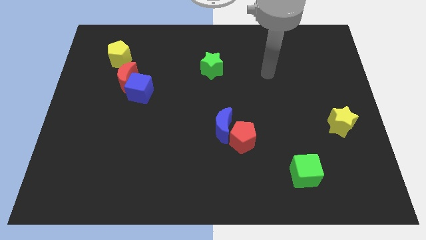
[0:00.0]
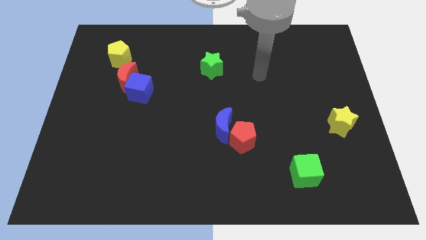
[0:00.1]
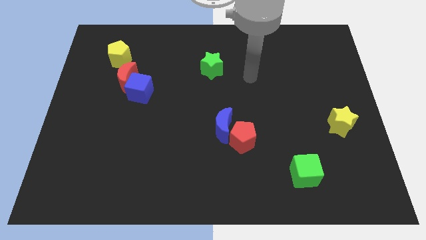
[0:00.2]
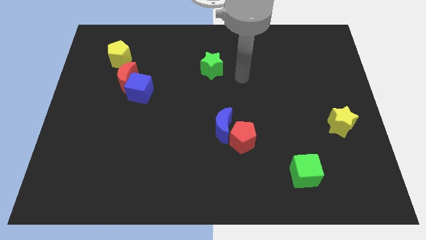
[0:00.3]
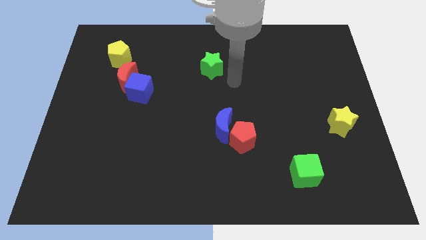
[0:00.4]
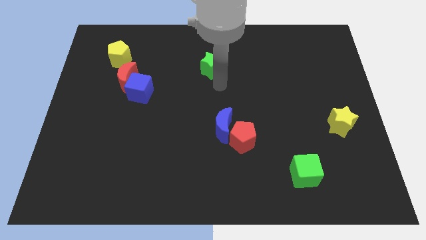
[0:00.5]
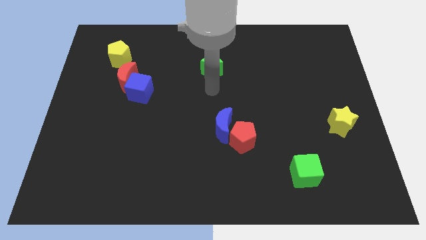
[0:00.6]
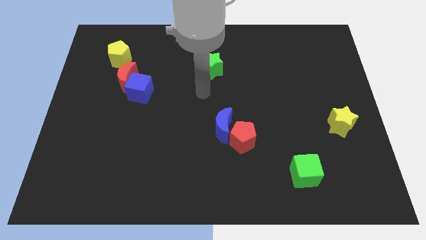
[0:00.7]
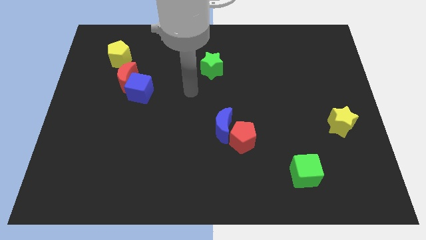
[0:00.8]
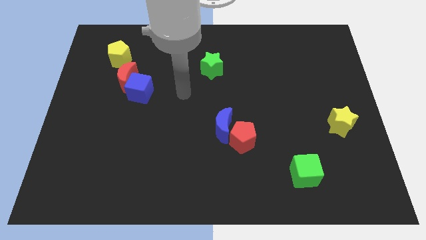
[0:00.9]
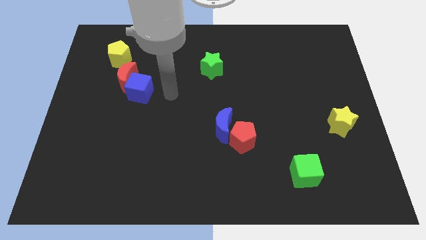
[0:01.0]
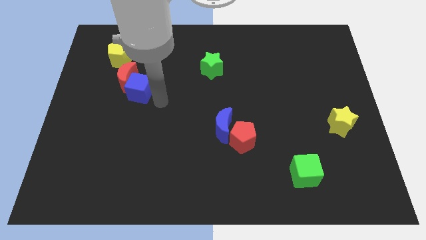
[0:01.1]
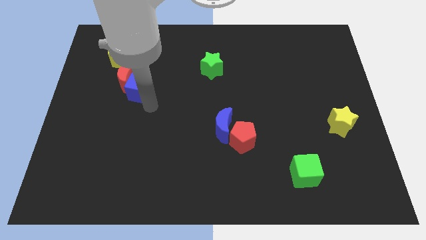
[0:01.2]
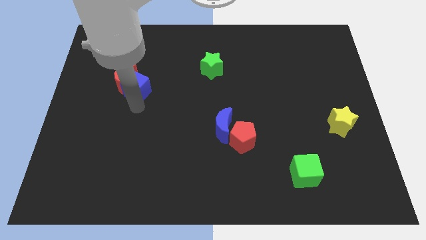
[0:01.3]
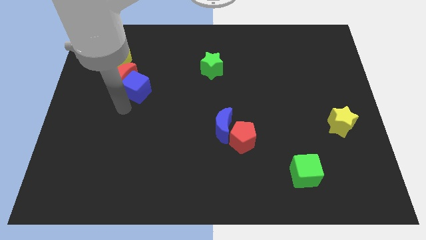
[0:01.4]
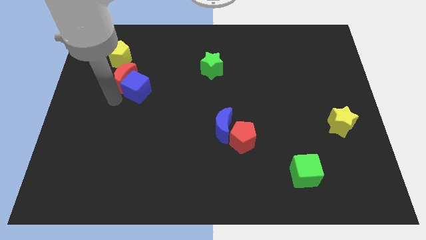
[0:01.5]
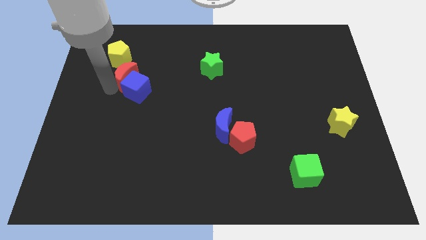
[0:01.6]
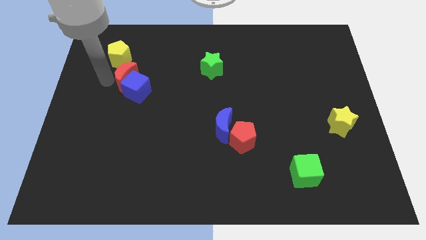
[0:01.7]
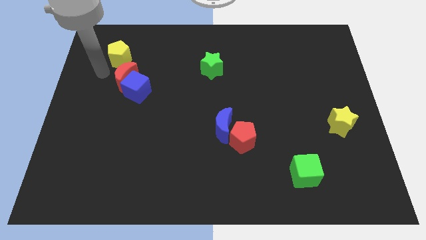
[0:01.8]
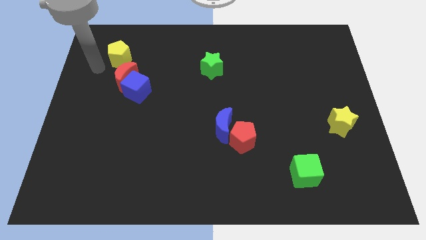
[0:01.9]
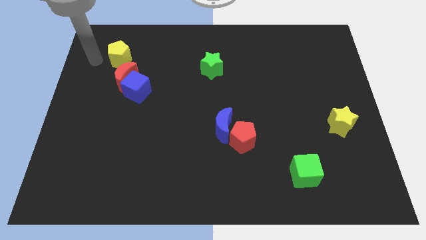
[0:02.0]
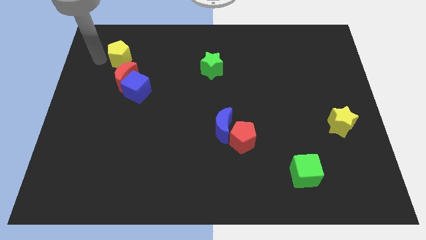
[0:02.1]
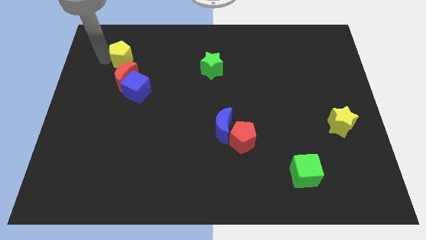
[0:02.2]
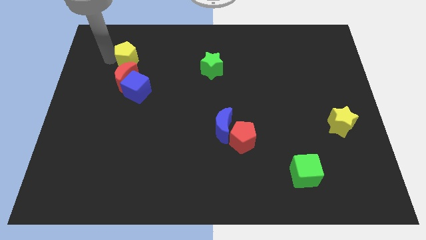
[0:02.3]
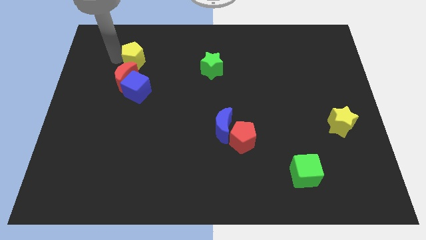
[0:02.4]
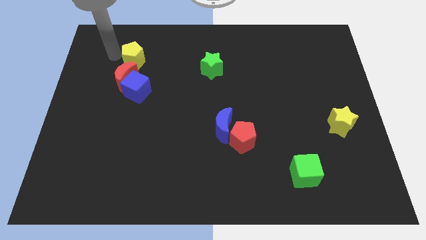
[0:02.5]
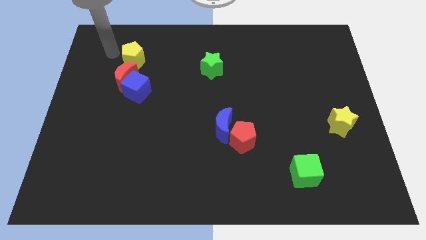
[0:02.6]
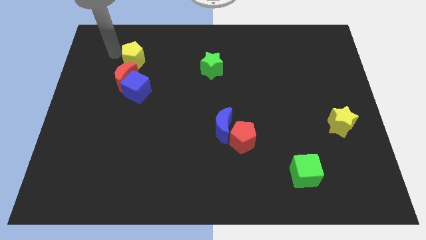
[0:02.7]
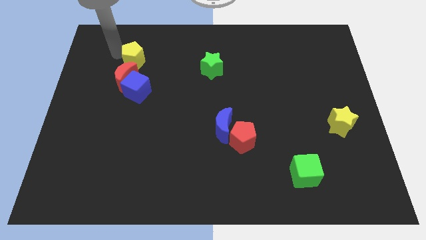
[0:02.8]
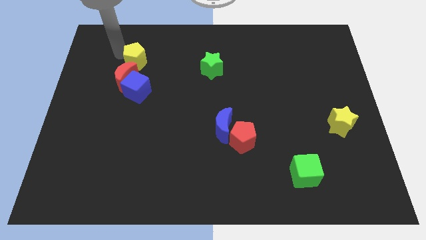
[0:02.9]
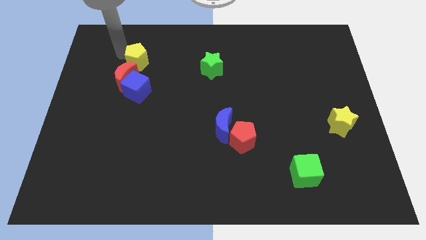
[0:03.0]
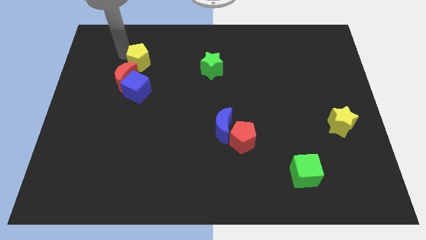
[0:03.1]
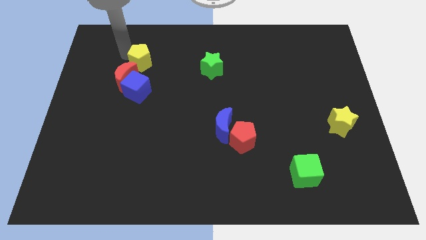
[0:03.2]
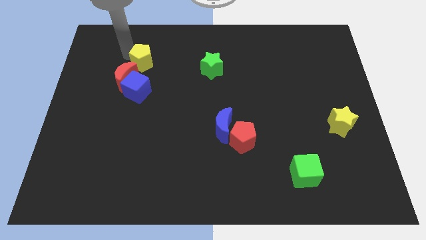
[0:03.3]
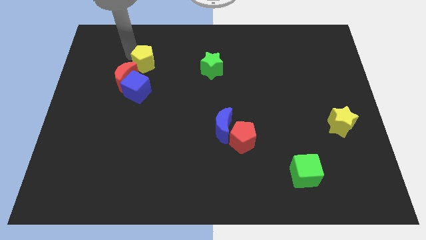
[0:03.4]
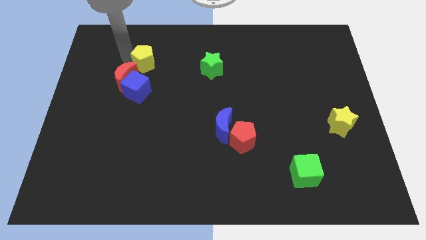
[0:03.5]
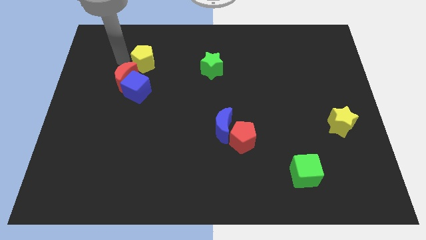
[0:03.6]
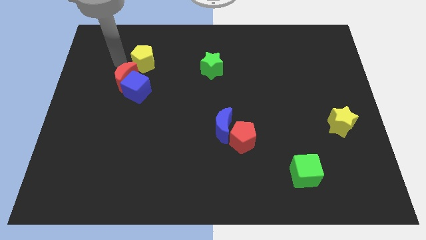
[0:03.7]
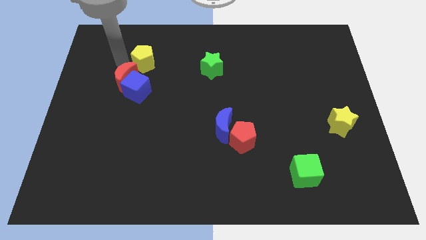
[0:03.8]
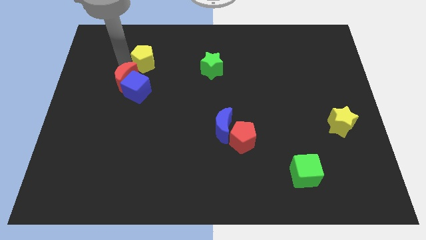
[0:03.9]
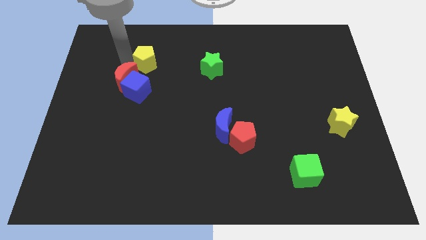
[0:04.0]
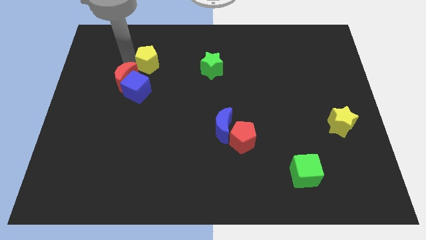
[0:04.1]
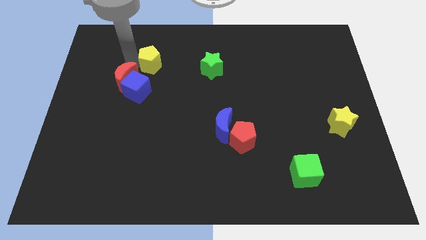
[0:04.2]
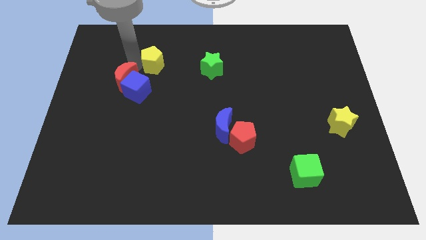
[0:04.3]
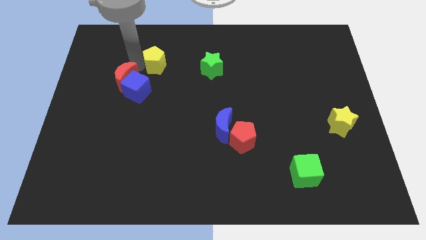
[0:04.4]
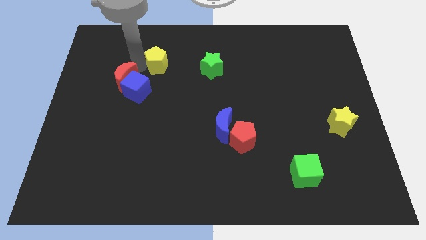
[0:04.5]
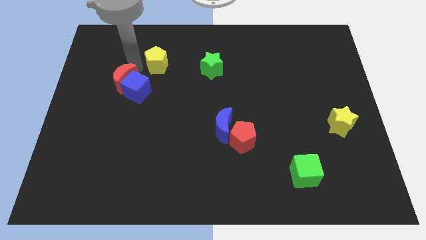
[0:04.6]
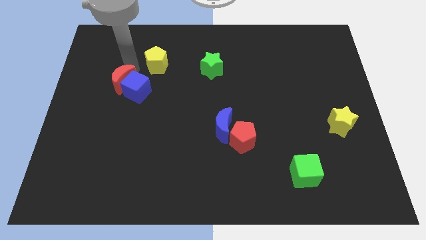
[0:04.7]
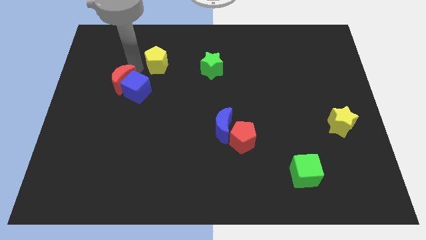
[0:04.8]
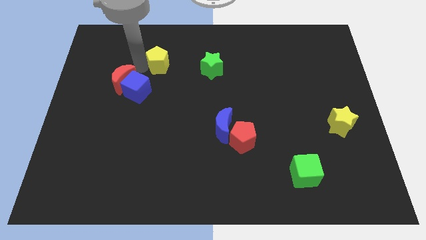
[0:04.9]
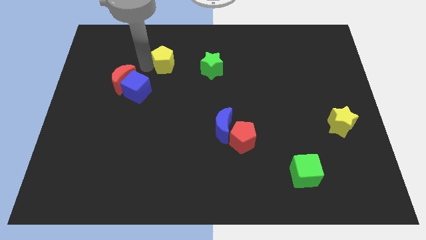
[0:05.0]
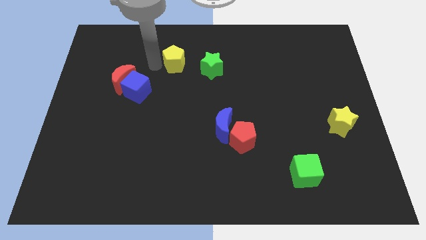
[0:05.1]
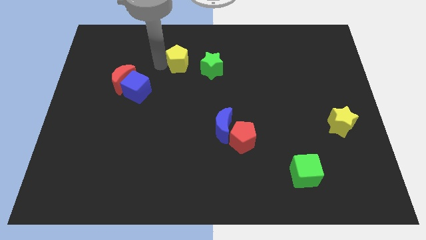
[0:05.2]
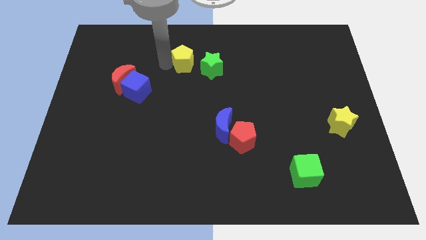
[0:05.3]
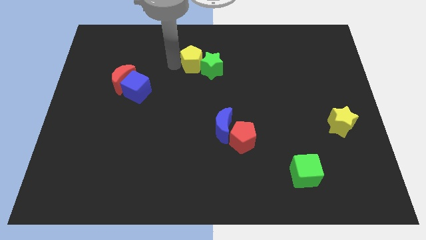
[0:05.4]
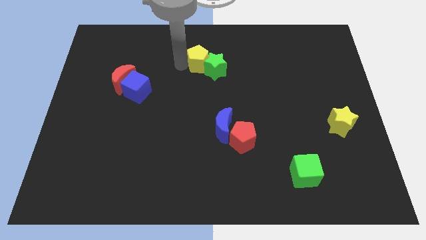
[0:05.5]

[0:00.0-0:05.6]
push the yellow pentagon to the right

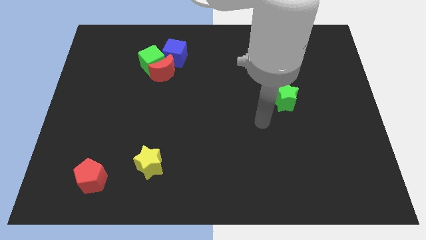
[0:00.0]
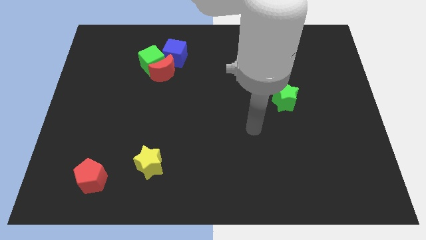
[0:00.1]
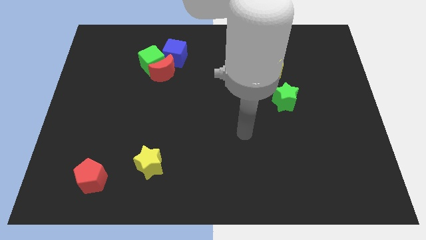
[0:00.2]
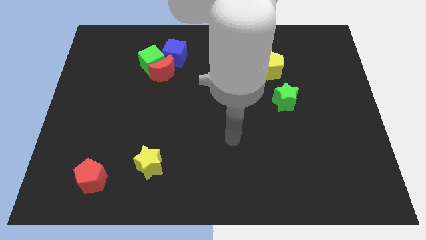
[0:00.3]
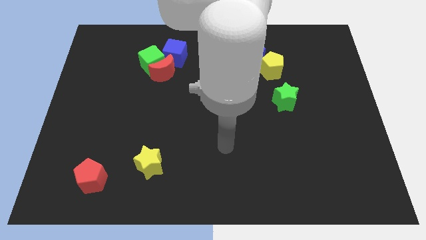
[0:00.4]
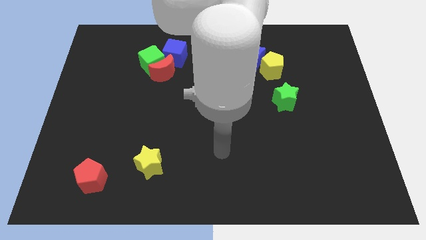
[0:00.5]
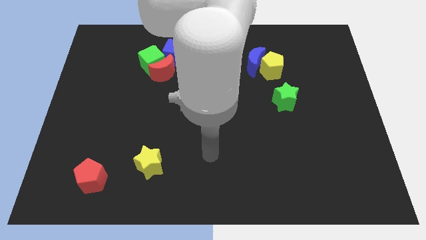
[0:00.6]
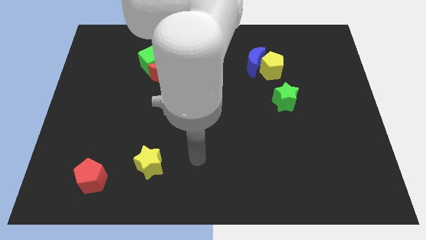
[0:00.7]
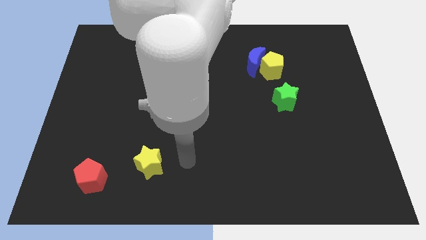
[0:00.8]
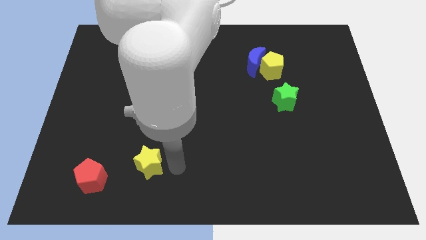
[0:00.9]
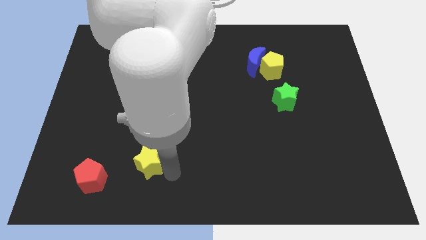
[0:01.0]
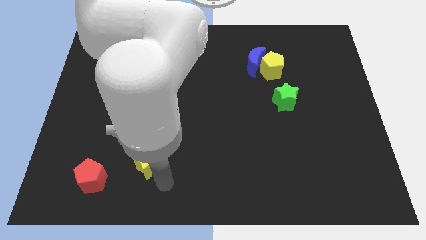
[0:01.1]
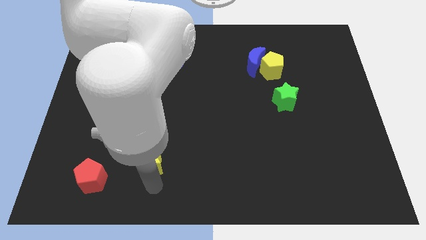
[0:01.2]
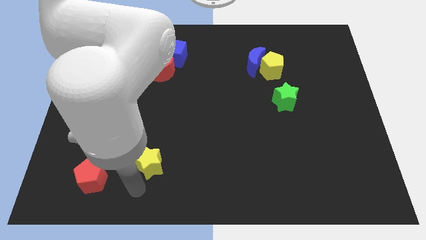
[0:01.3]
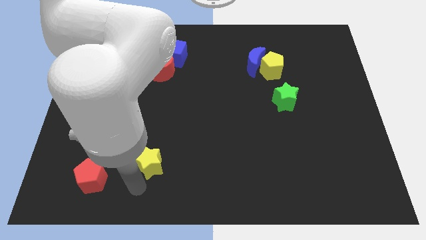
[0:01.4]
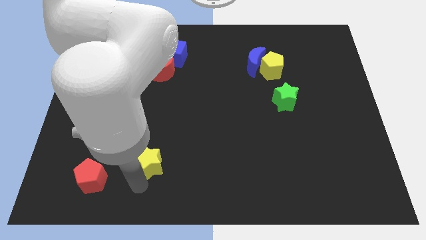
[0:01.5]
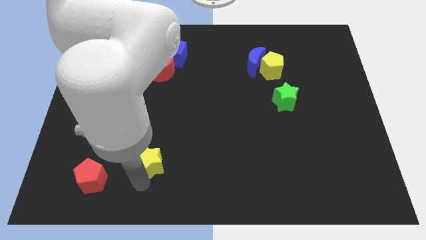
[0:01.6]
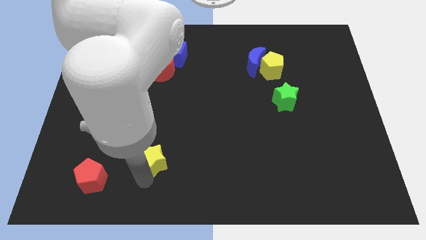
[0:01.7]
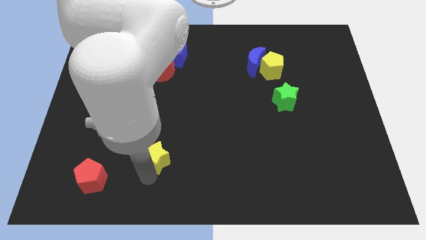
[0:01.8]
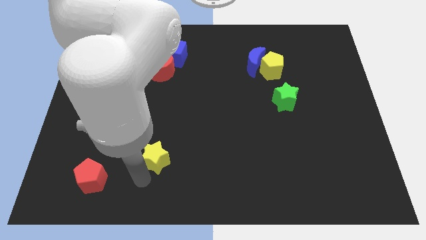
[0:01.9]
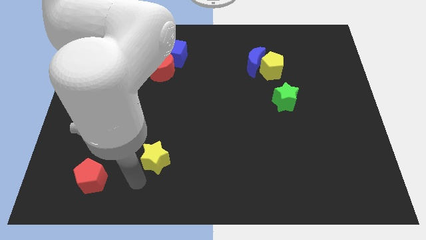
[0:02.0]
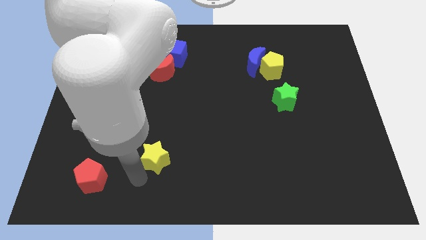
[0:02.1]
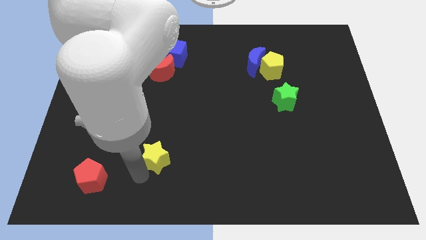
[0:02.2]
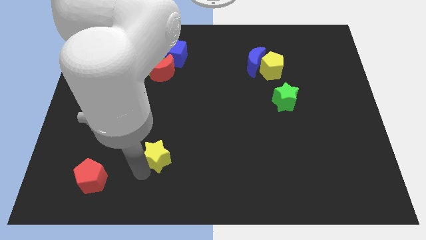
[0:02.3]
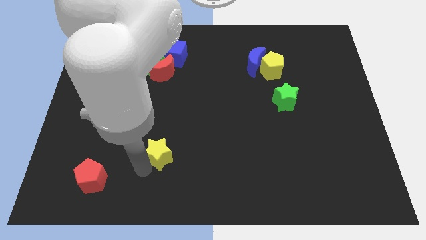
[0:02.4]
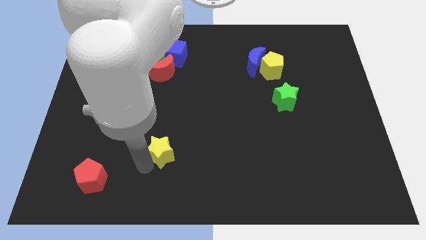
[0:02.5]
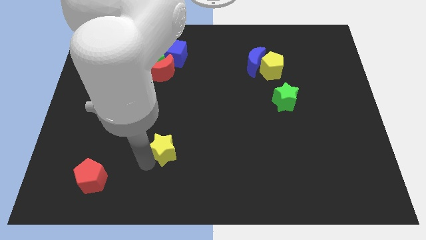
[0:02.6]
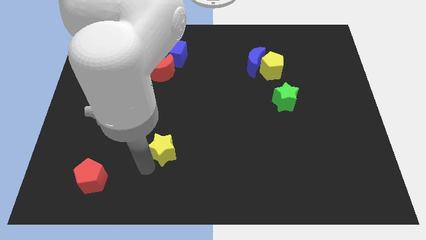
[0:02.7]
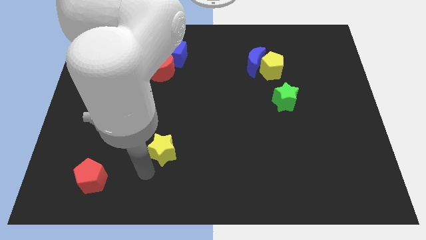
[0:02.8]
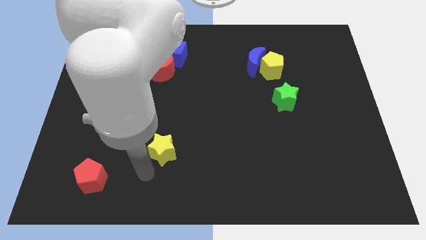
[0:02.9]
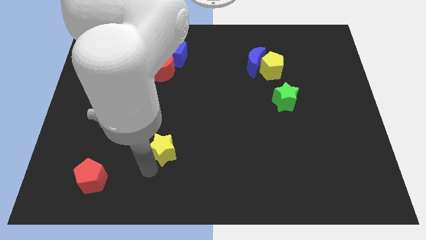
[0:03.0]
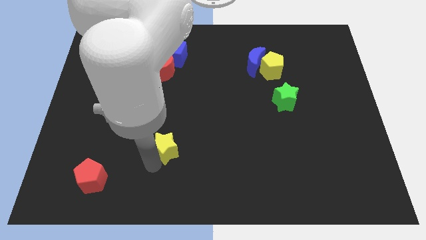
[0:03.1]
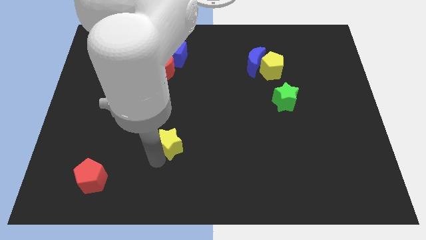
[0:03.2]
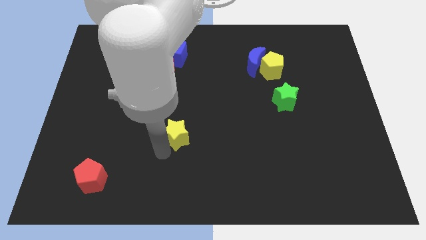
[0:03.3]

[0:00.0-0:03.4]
push the yellow star up and right diagonally slightly
